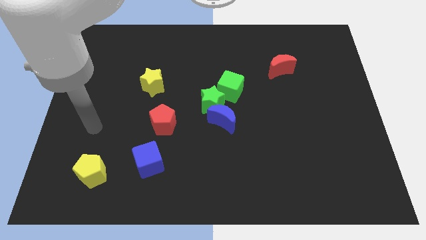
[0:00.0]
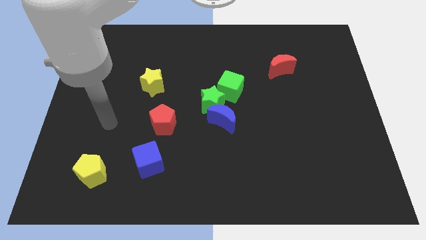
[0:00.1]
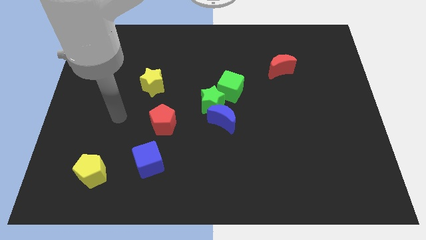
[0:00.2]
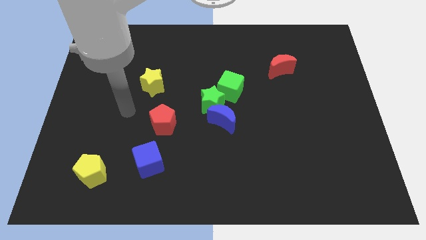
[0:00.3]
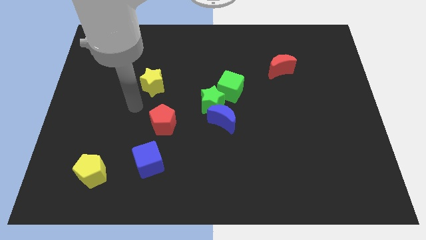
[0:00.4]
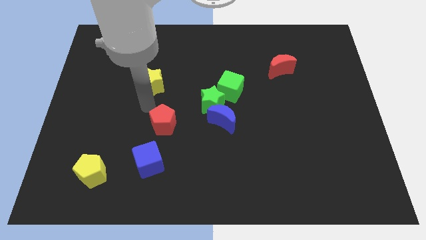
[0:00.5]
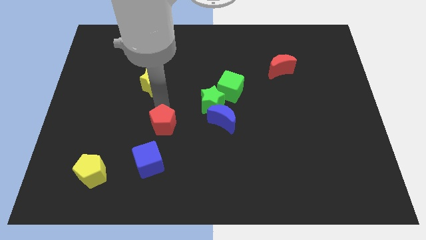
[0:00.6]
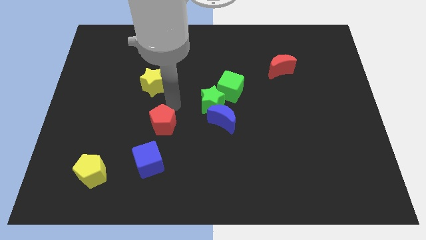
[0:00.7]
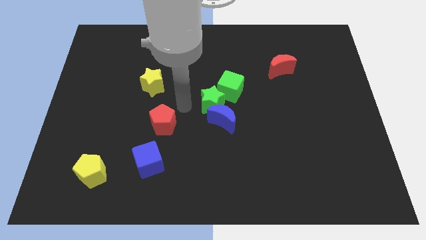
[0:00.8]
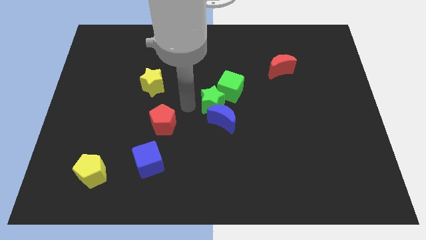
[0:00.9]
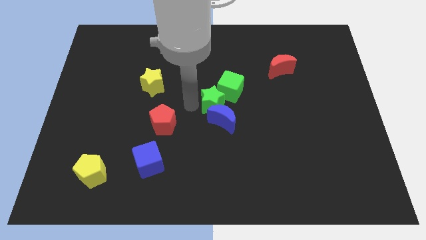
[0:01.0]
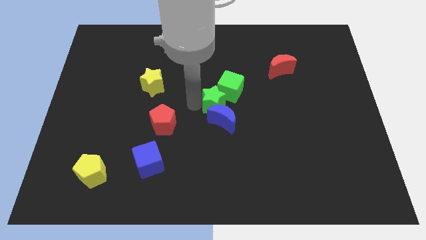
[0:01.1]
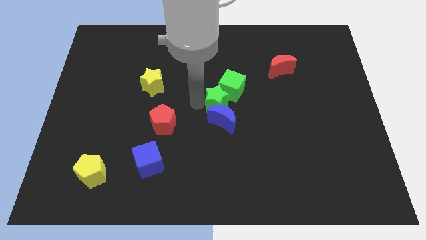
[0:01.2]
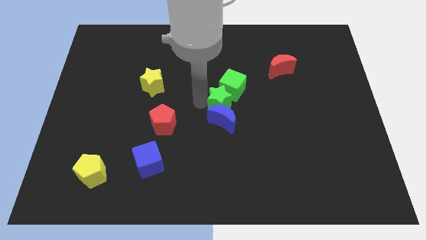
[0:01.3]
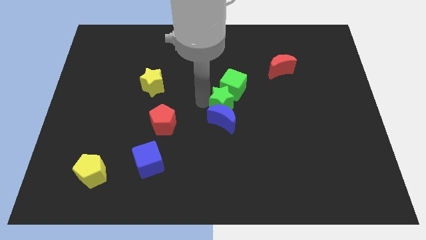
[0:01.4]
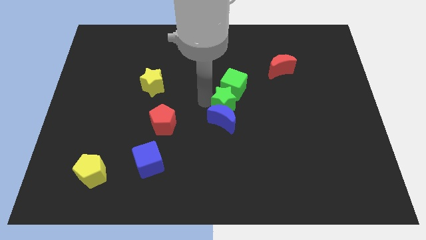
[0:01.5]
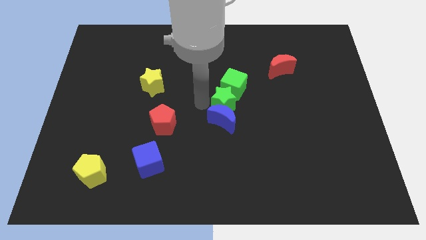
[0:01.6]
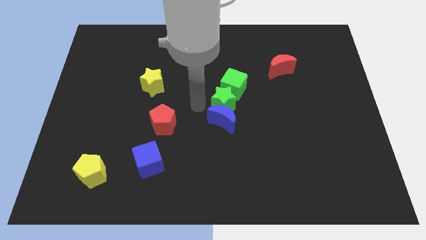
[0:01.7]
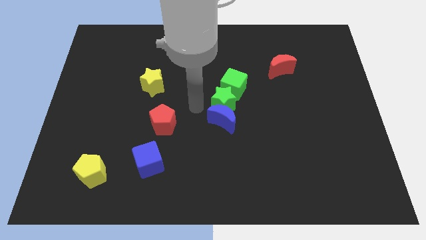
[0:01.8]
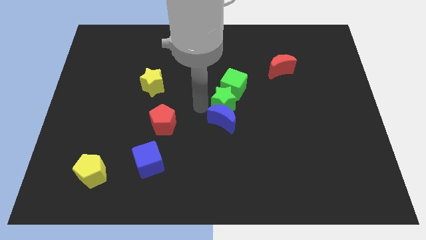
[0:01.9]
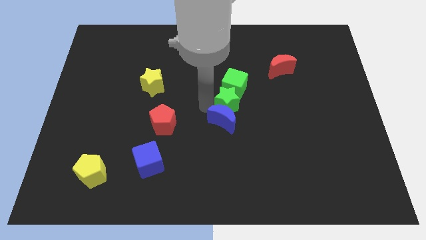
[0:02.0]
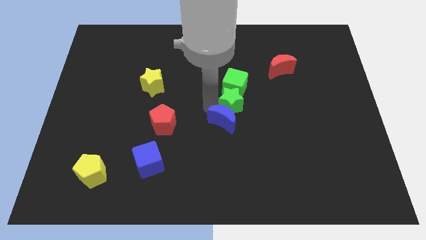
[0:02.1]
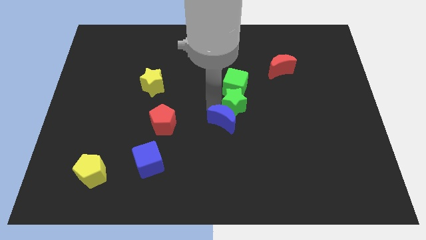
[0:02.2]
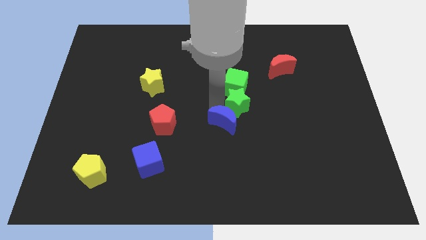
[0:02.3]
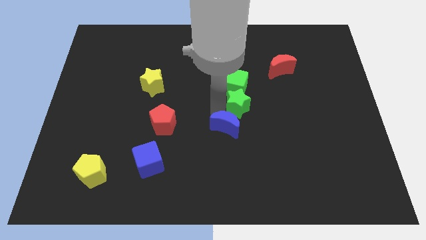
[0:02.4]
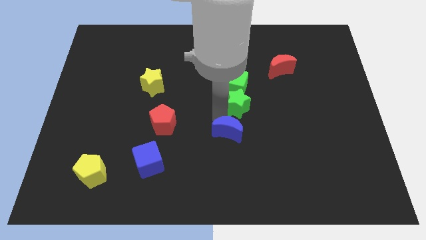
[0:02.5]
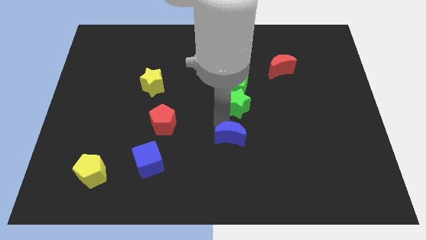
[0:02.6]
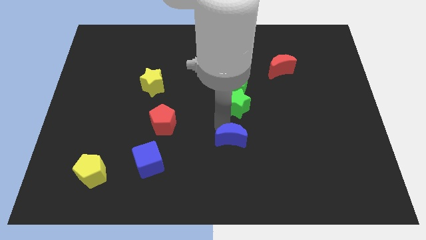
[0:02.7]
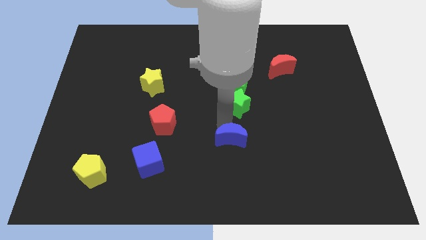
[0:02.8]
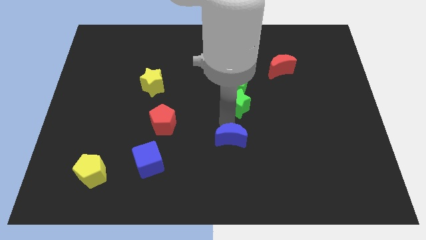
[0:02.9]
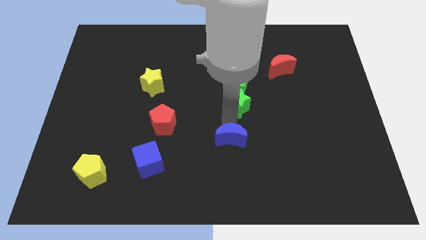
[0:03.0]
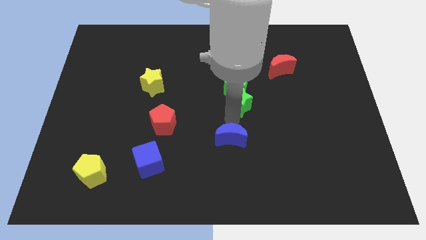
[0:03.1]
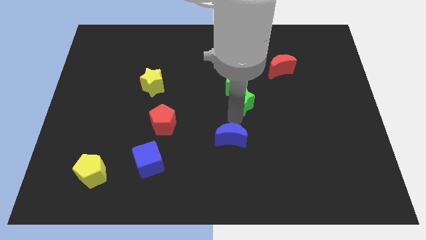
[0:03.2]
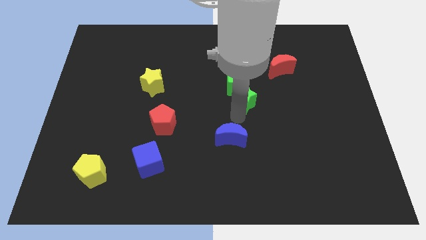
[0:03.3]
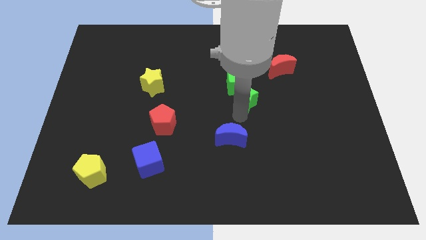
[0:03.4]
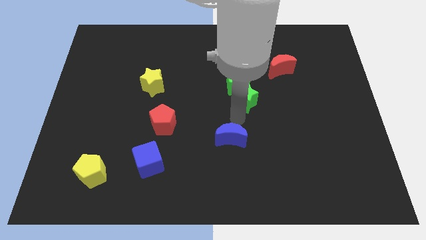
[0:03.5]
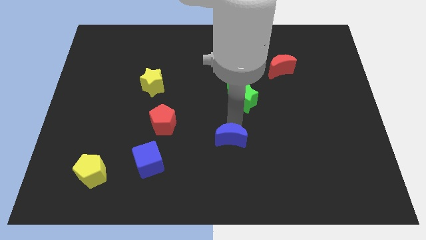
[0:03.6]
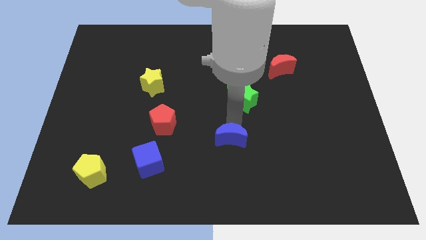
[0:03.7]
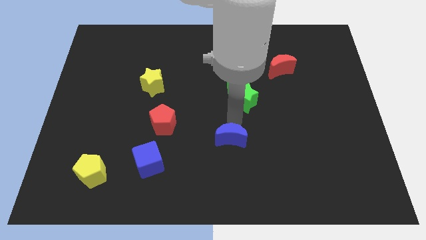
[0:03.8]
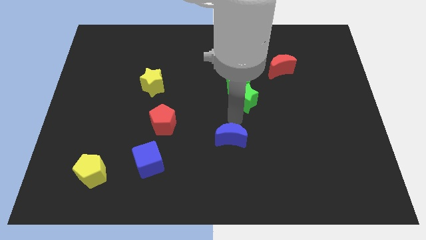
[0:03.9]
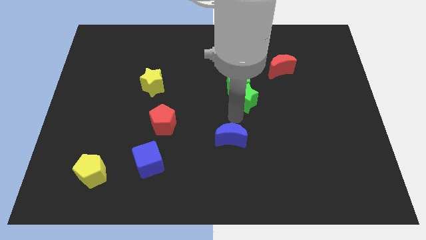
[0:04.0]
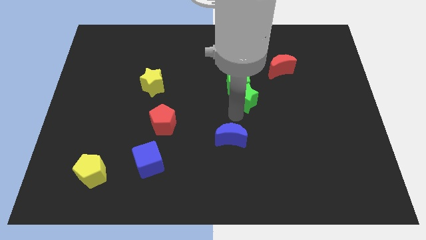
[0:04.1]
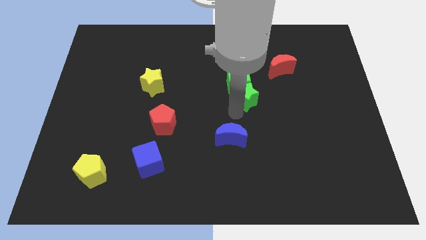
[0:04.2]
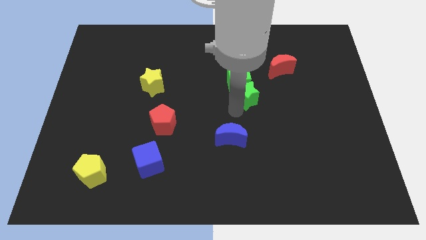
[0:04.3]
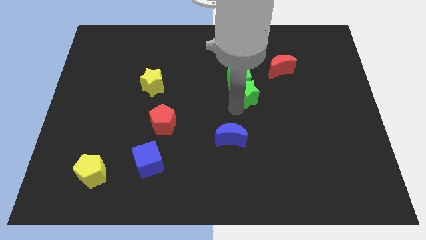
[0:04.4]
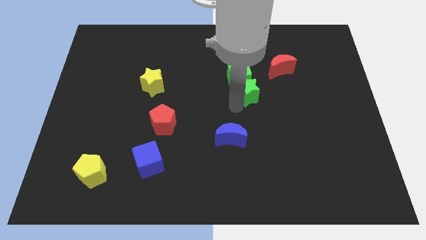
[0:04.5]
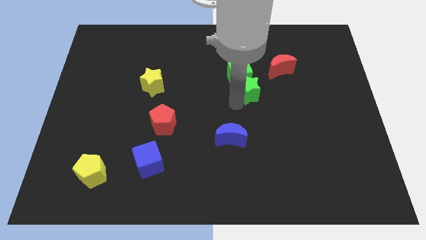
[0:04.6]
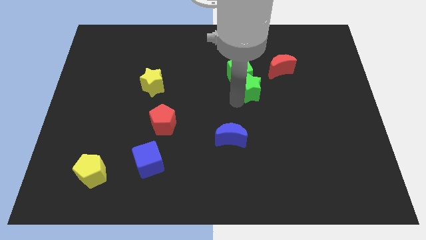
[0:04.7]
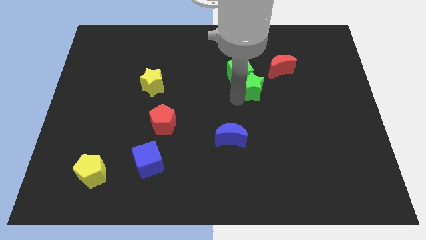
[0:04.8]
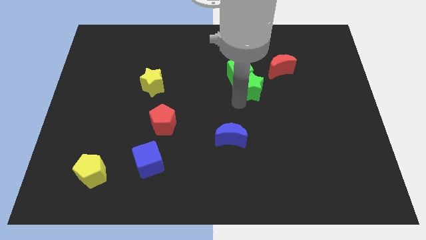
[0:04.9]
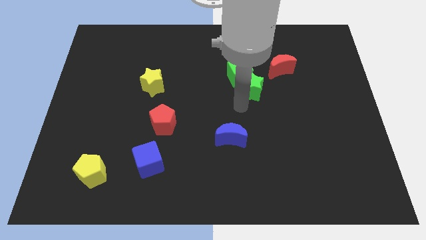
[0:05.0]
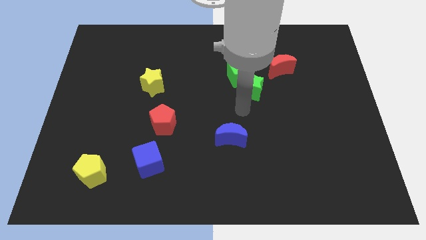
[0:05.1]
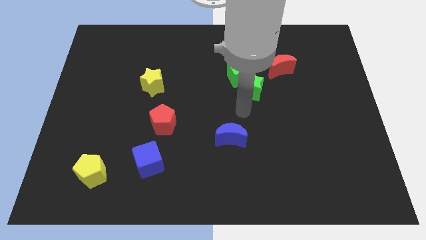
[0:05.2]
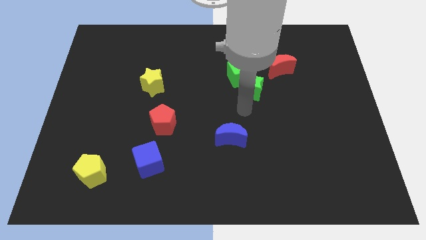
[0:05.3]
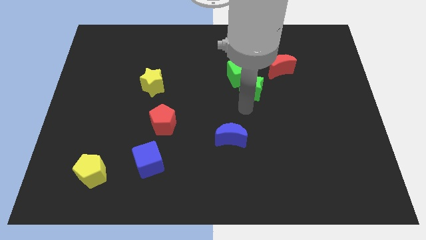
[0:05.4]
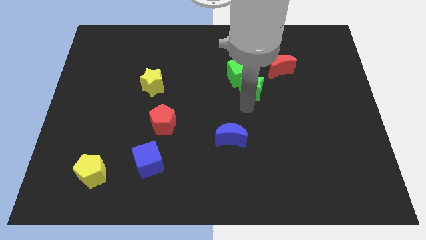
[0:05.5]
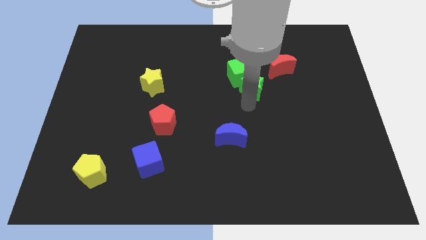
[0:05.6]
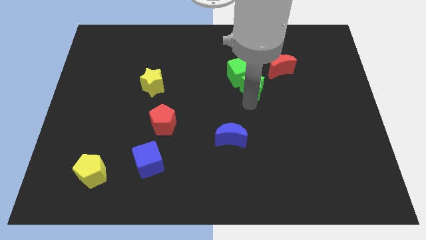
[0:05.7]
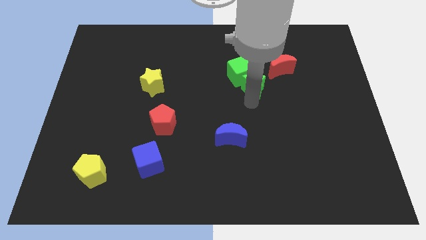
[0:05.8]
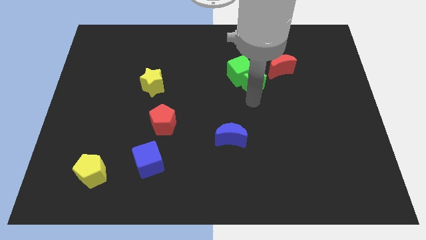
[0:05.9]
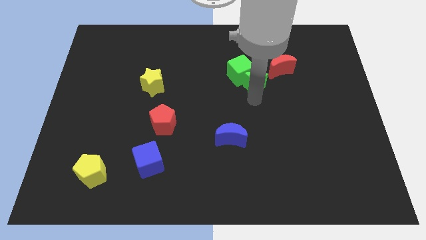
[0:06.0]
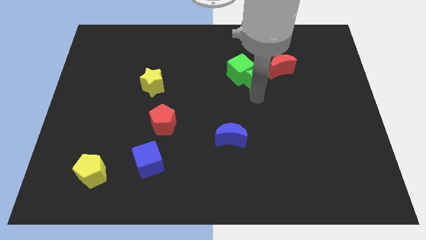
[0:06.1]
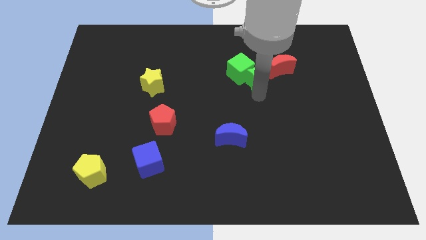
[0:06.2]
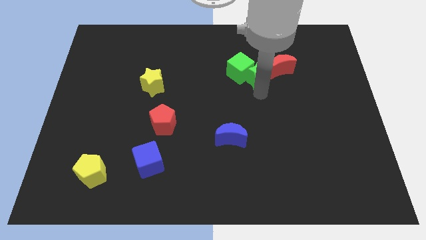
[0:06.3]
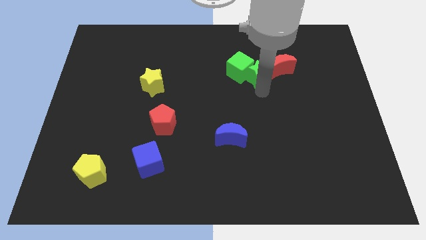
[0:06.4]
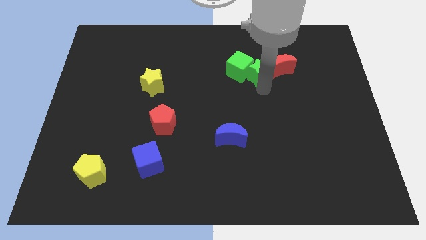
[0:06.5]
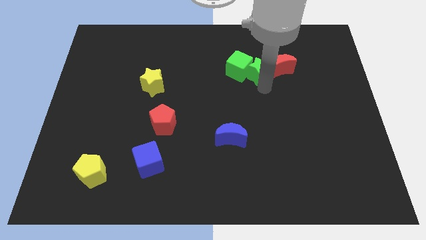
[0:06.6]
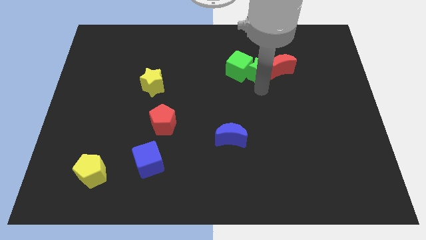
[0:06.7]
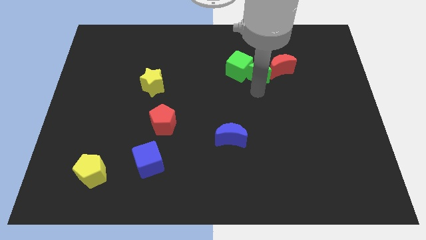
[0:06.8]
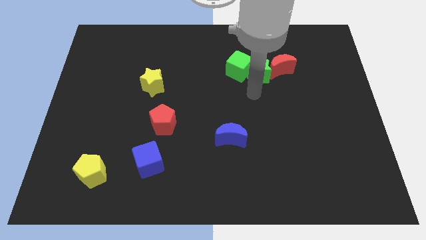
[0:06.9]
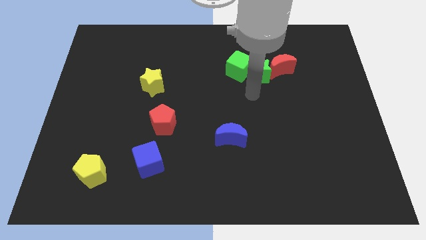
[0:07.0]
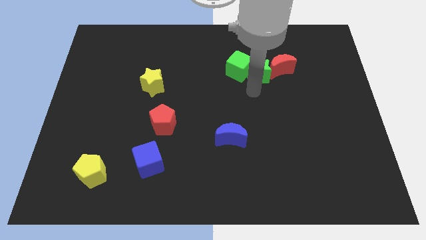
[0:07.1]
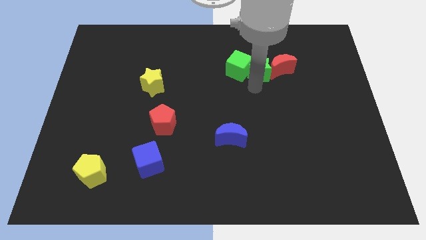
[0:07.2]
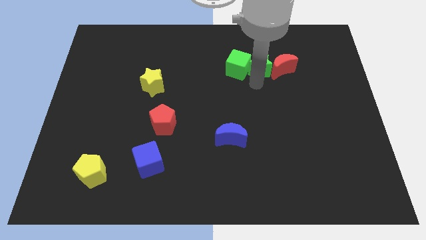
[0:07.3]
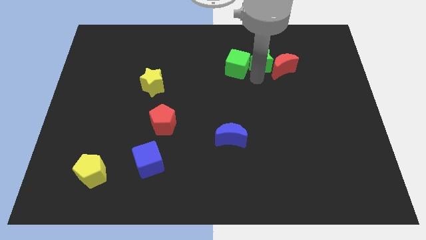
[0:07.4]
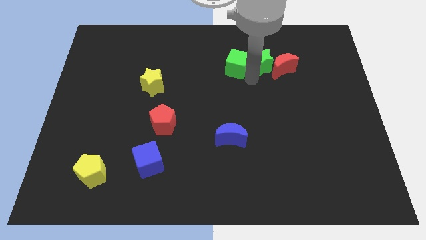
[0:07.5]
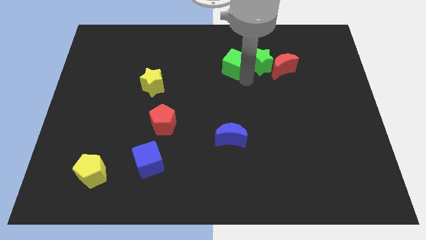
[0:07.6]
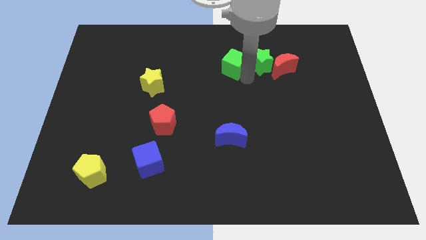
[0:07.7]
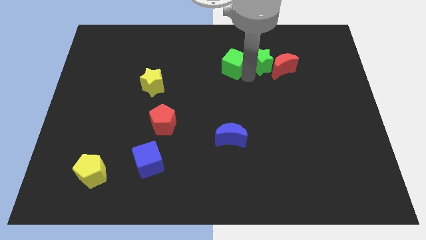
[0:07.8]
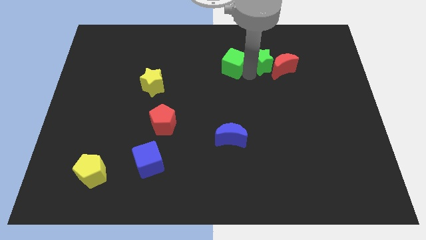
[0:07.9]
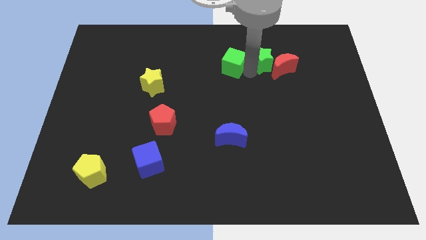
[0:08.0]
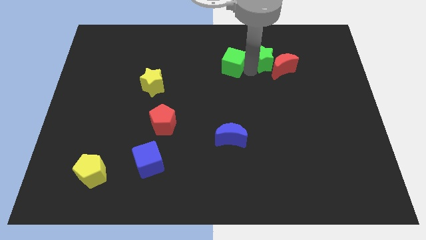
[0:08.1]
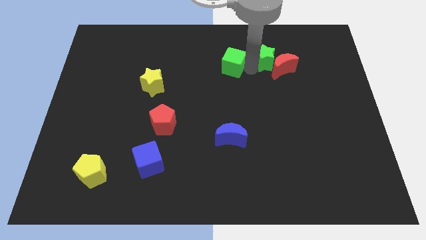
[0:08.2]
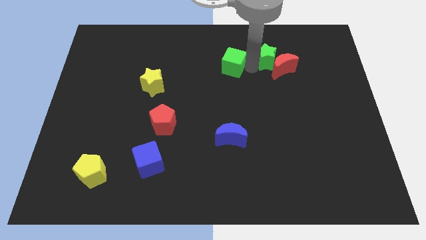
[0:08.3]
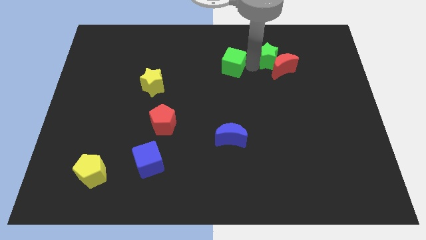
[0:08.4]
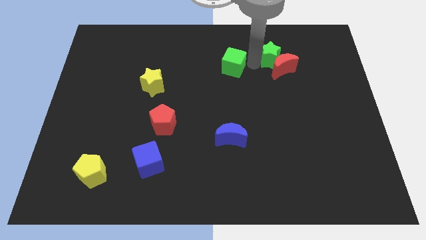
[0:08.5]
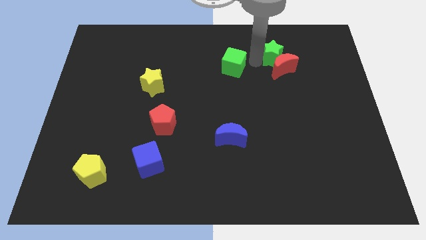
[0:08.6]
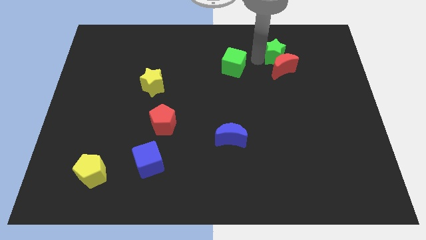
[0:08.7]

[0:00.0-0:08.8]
put the green star to the top right of the red moon
